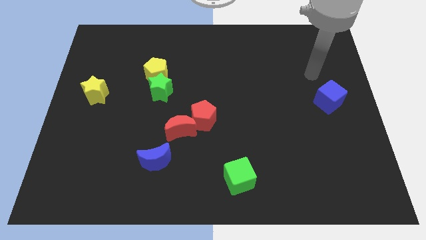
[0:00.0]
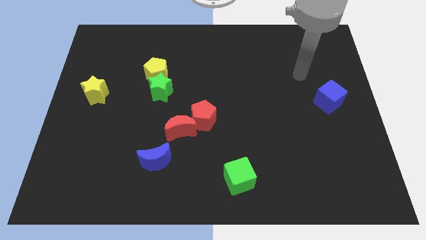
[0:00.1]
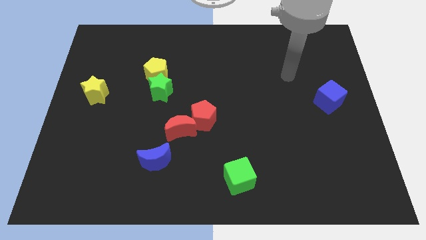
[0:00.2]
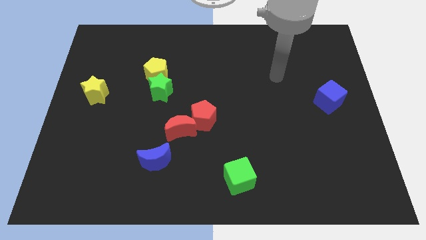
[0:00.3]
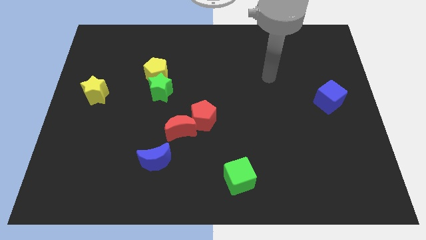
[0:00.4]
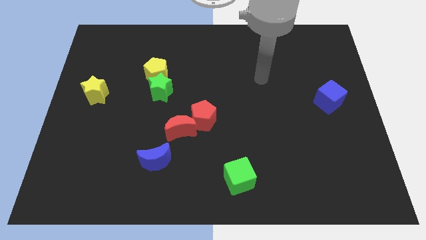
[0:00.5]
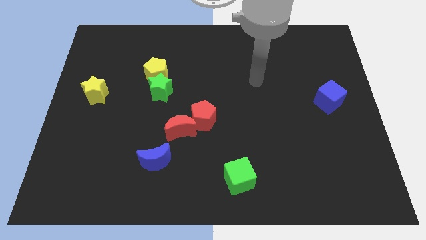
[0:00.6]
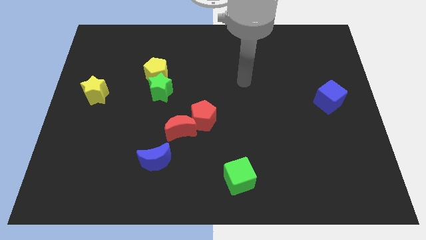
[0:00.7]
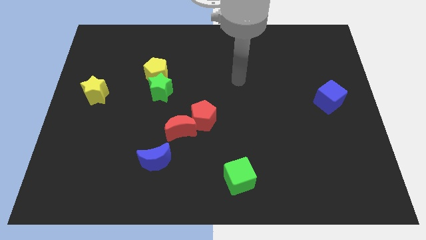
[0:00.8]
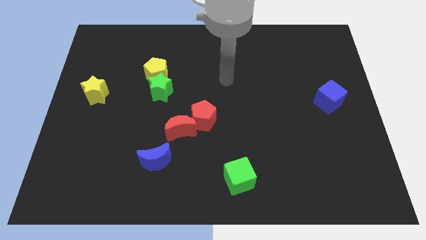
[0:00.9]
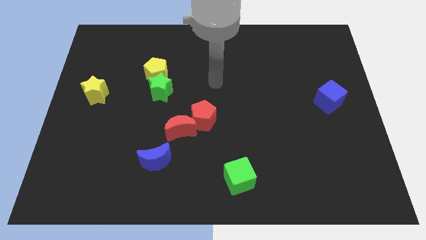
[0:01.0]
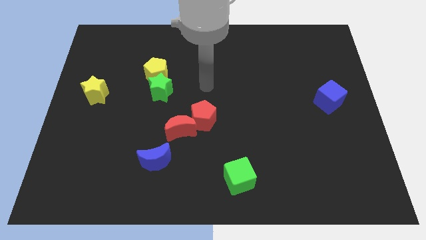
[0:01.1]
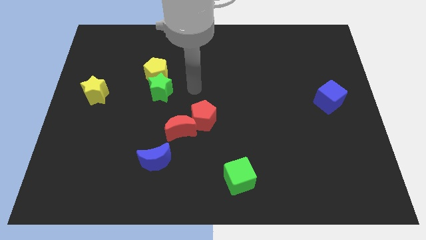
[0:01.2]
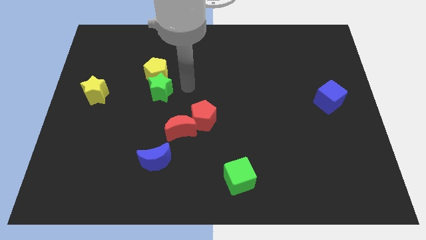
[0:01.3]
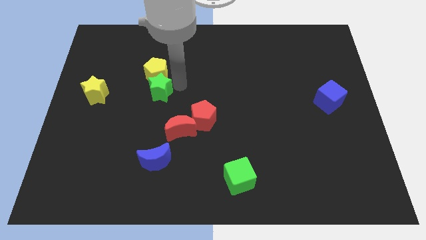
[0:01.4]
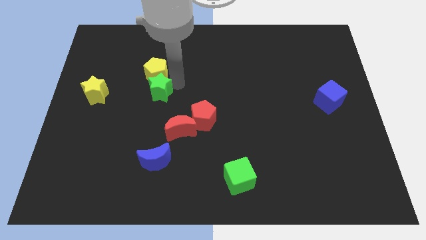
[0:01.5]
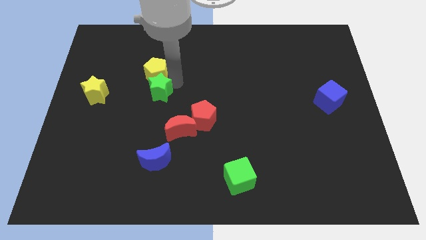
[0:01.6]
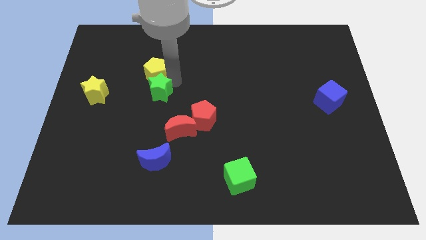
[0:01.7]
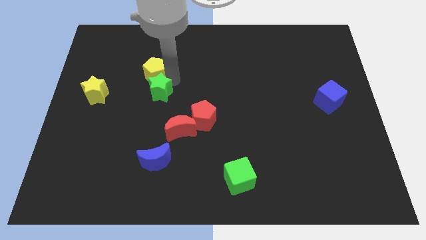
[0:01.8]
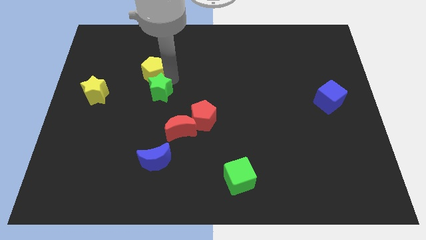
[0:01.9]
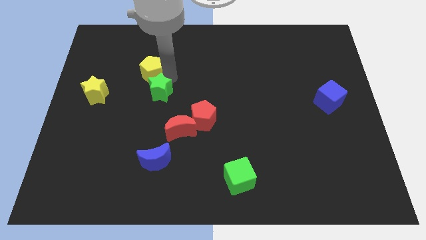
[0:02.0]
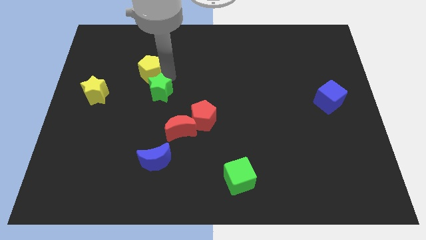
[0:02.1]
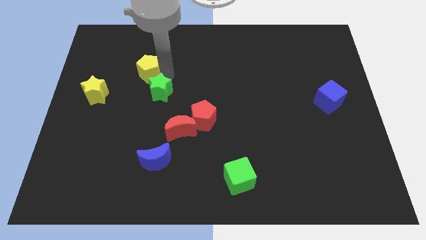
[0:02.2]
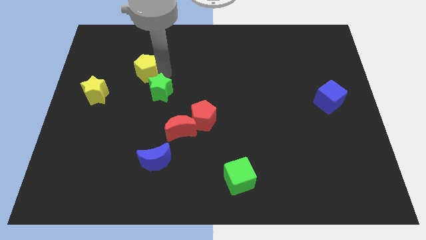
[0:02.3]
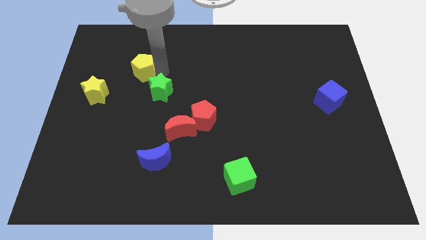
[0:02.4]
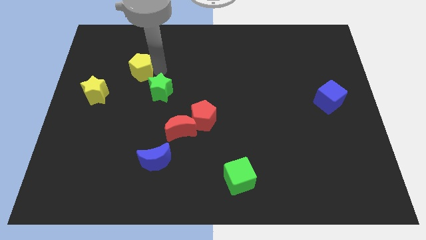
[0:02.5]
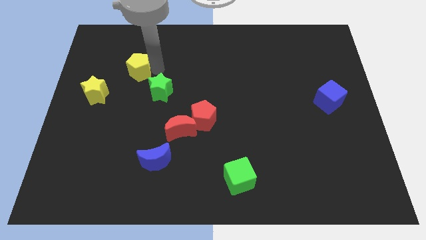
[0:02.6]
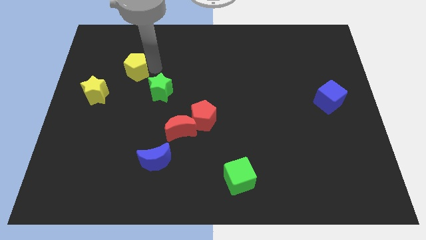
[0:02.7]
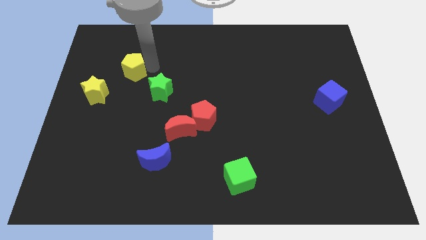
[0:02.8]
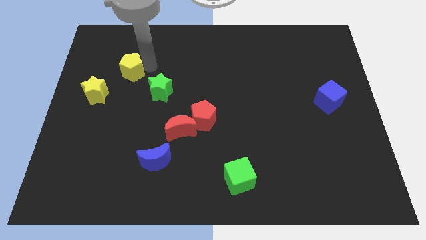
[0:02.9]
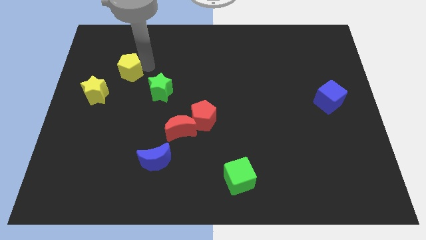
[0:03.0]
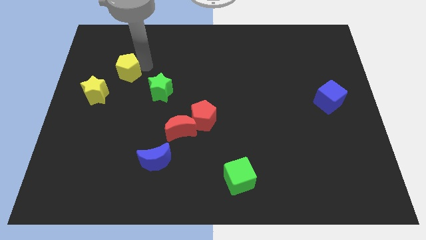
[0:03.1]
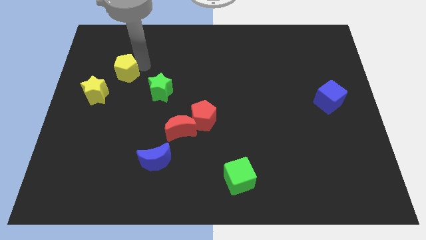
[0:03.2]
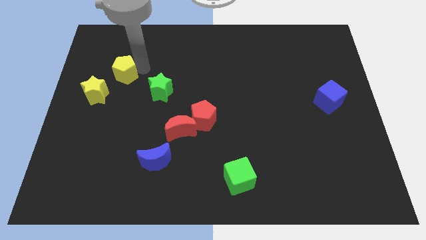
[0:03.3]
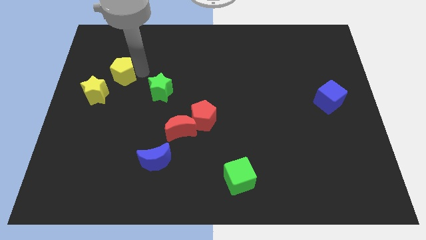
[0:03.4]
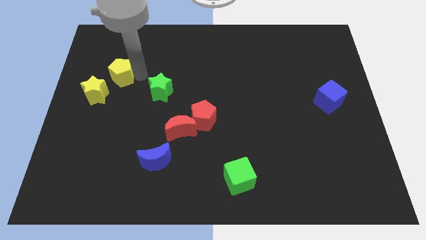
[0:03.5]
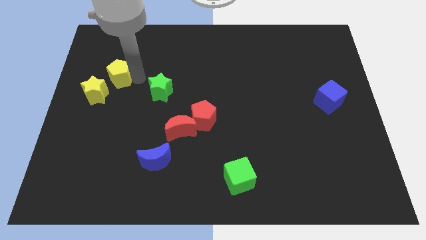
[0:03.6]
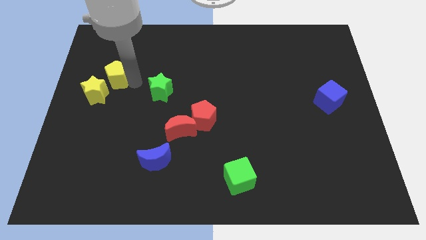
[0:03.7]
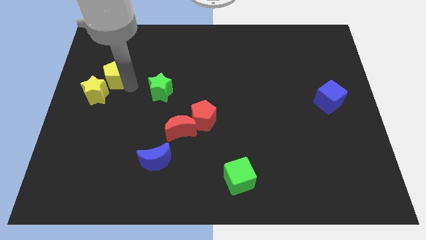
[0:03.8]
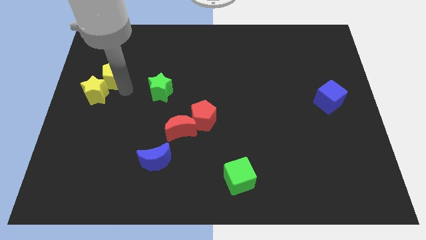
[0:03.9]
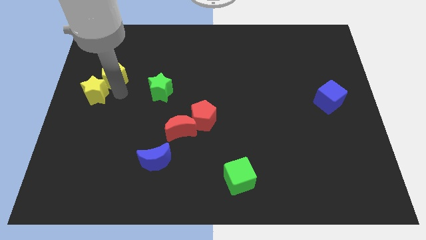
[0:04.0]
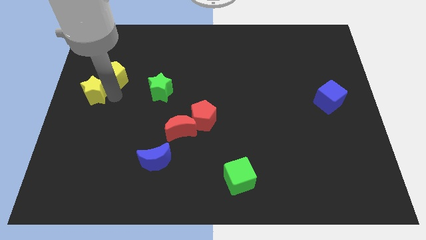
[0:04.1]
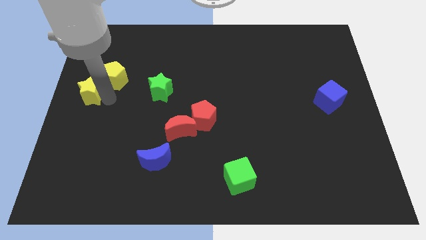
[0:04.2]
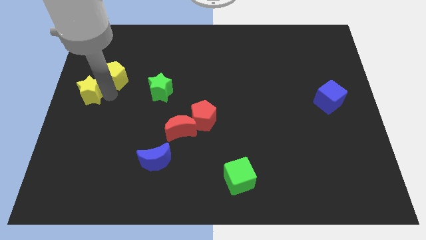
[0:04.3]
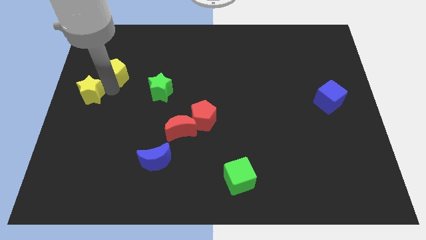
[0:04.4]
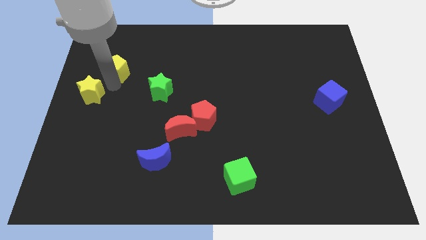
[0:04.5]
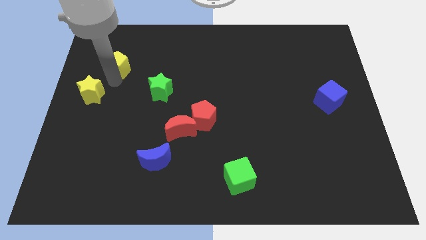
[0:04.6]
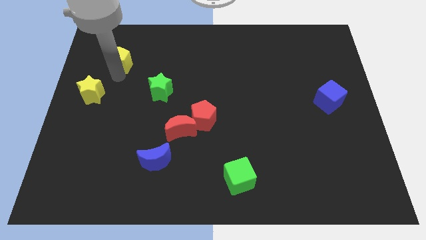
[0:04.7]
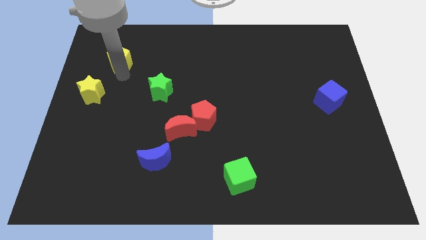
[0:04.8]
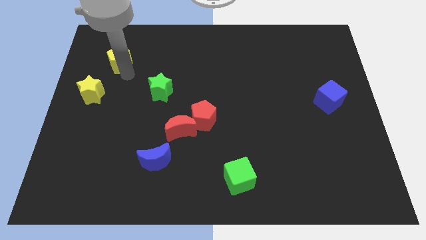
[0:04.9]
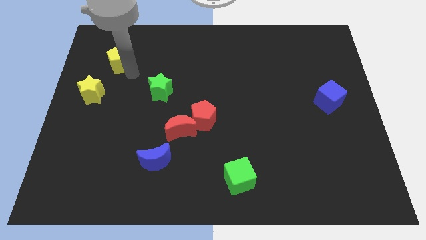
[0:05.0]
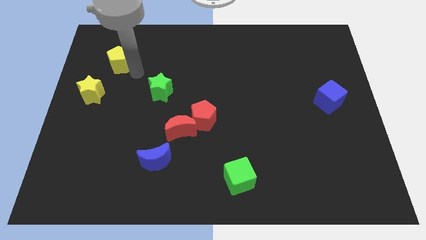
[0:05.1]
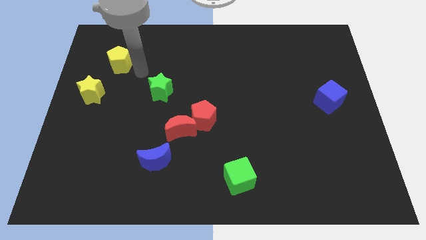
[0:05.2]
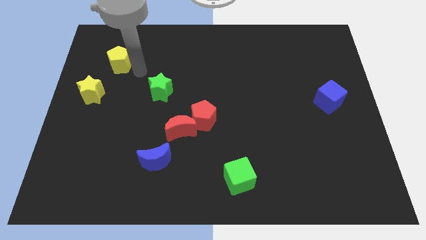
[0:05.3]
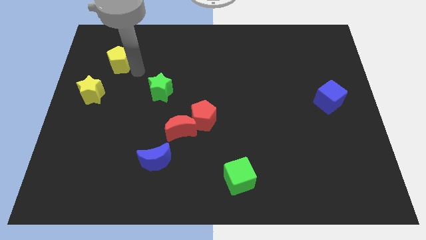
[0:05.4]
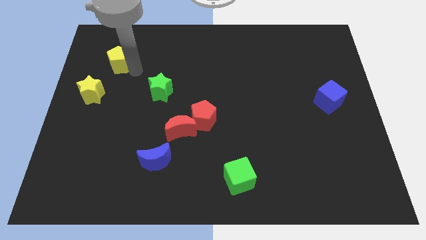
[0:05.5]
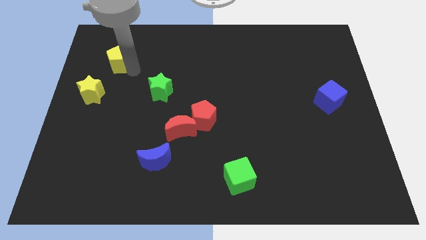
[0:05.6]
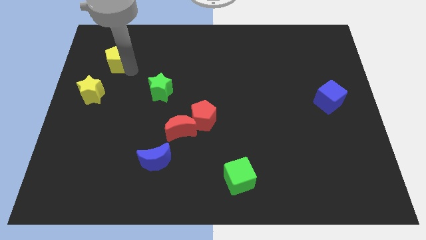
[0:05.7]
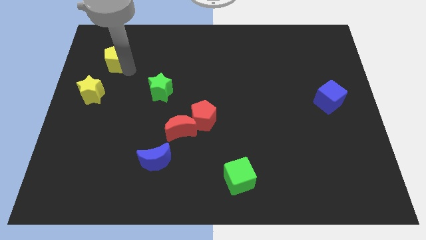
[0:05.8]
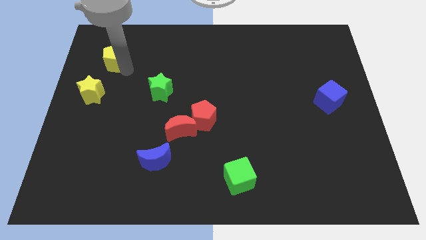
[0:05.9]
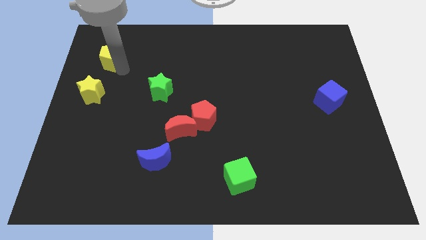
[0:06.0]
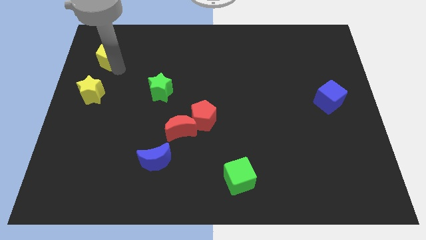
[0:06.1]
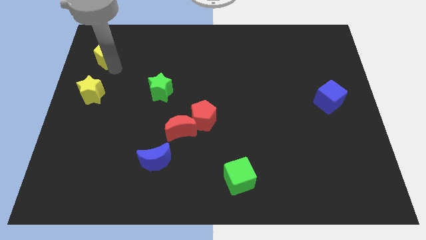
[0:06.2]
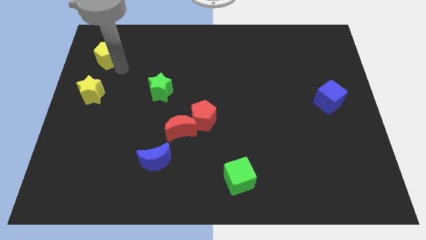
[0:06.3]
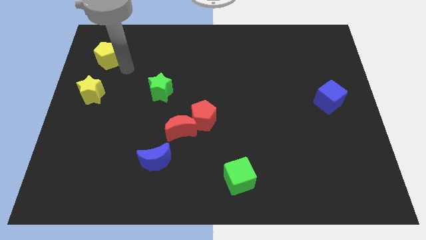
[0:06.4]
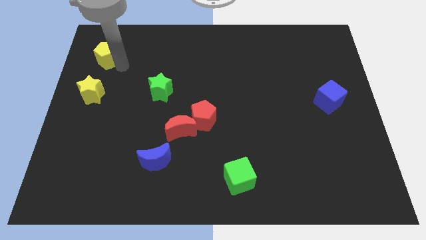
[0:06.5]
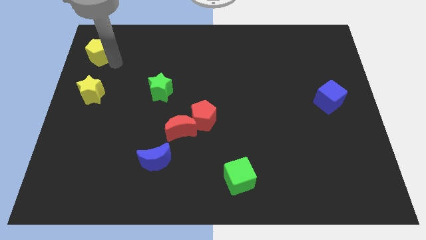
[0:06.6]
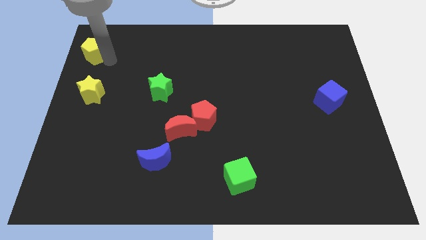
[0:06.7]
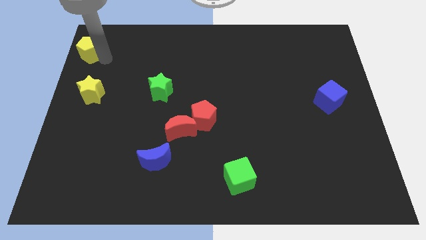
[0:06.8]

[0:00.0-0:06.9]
push the yellow pentagon to the upper left corner
